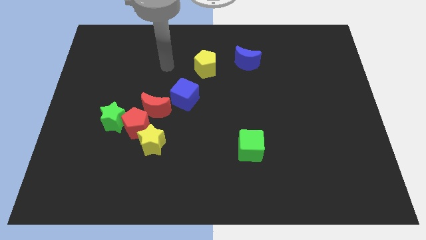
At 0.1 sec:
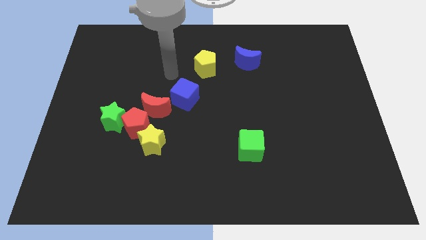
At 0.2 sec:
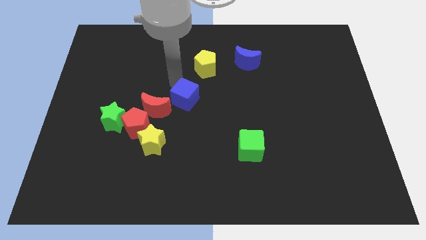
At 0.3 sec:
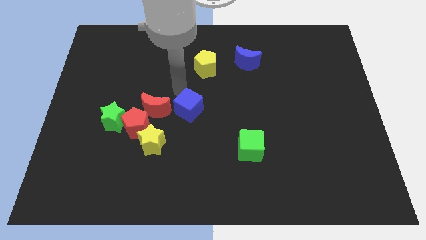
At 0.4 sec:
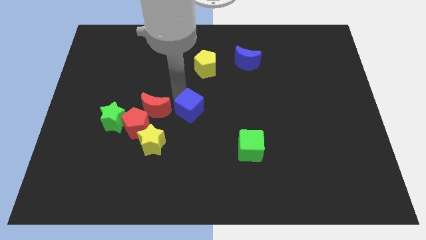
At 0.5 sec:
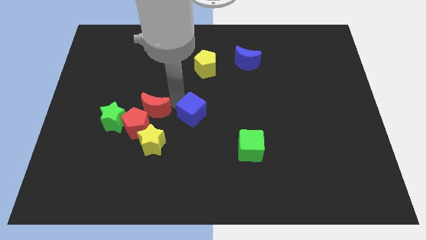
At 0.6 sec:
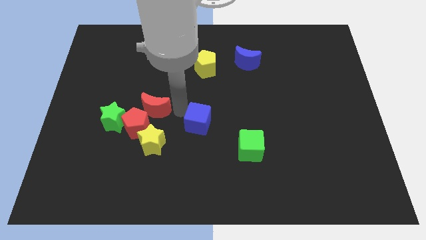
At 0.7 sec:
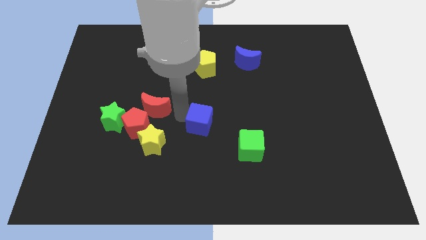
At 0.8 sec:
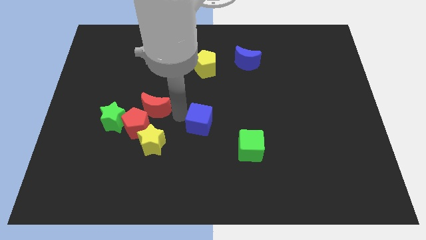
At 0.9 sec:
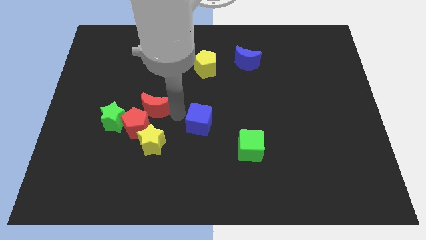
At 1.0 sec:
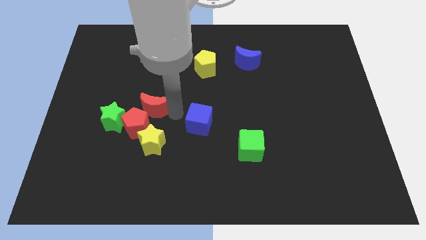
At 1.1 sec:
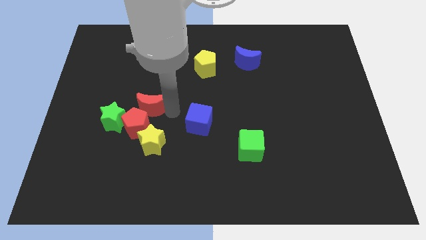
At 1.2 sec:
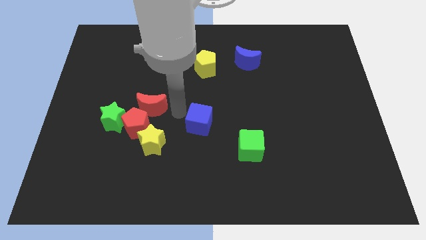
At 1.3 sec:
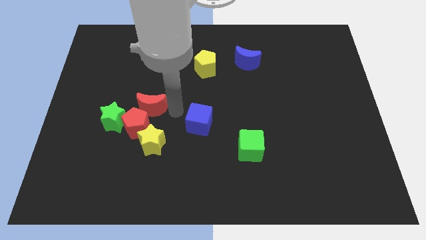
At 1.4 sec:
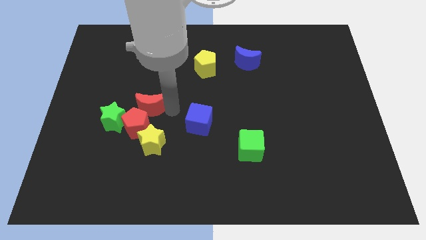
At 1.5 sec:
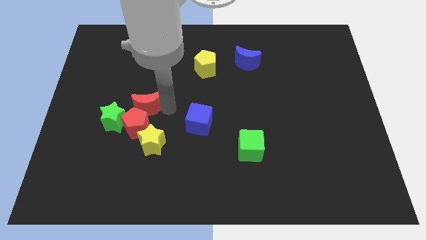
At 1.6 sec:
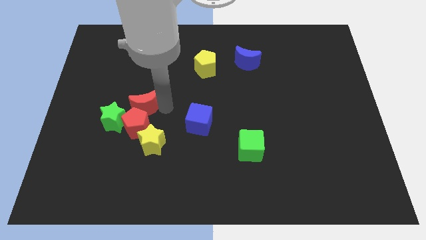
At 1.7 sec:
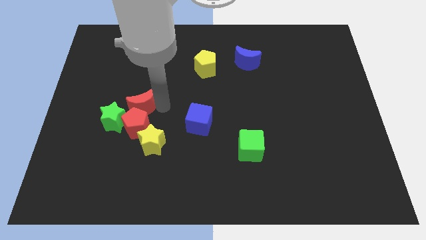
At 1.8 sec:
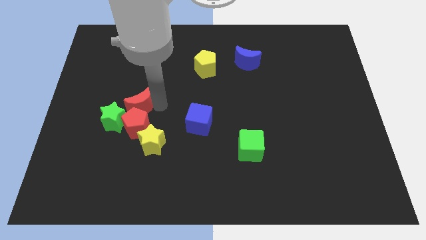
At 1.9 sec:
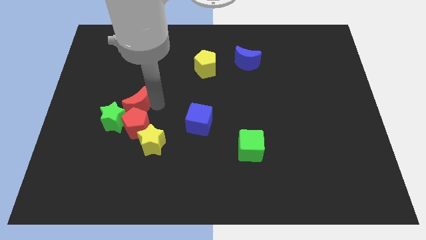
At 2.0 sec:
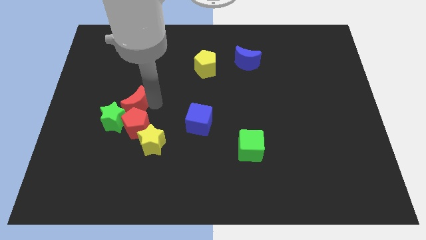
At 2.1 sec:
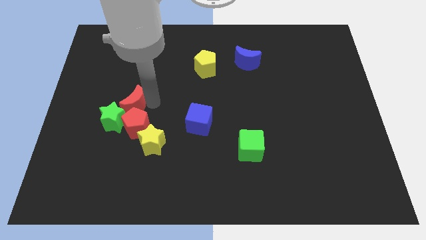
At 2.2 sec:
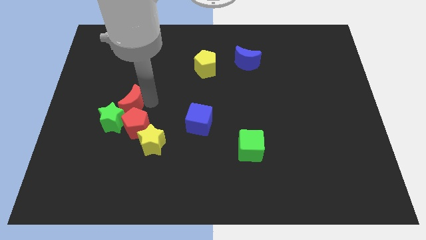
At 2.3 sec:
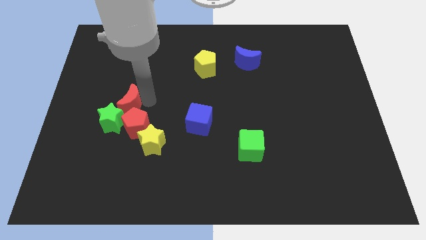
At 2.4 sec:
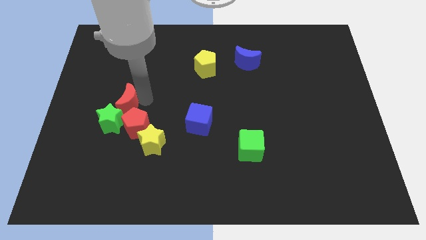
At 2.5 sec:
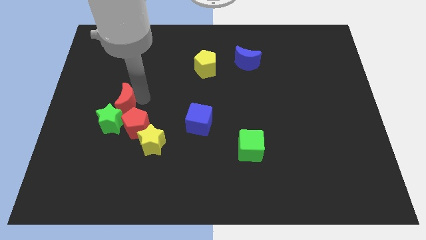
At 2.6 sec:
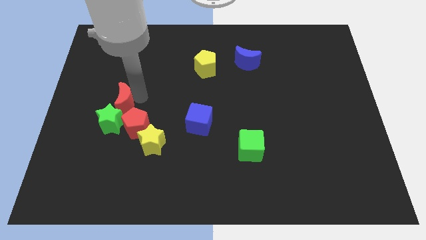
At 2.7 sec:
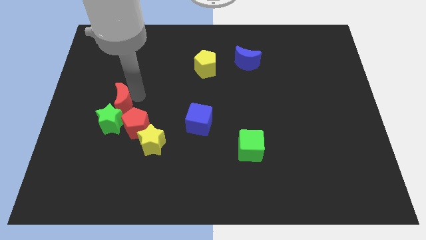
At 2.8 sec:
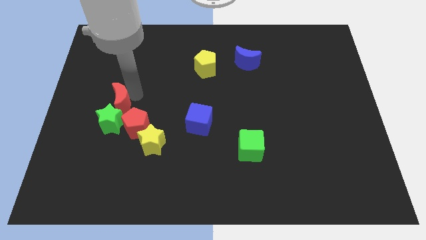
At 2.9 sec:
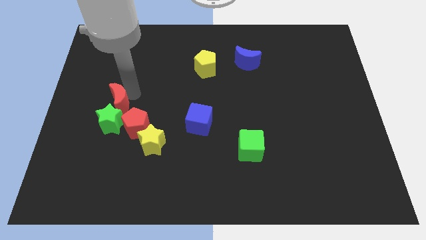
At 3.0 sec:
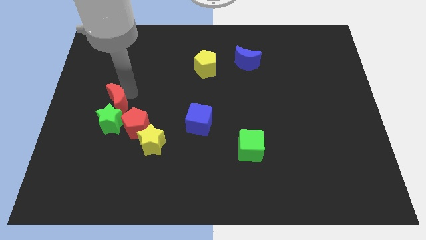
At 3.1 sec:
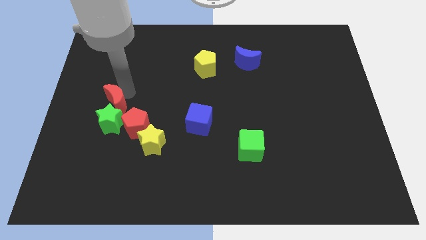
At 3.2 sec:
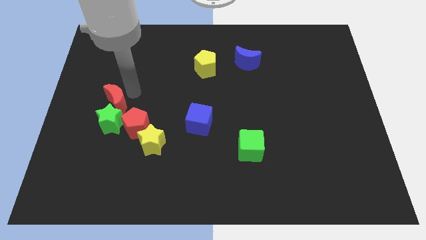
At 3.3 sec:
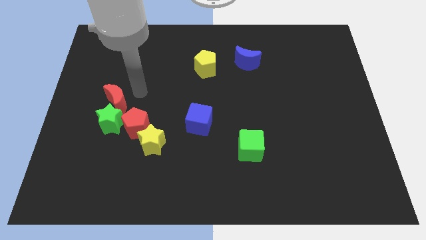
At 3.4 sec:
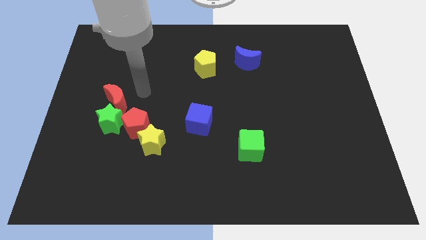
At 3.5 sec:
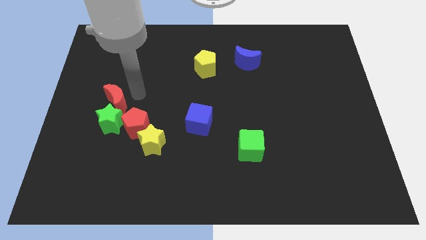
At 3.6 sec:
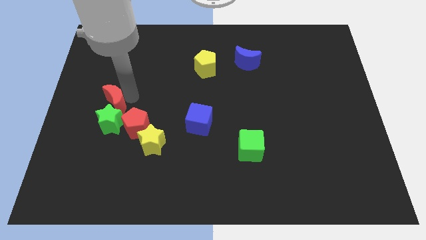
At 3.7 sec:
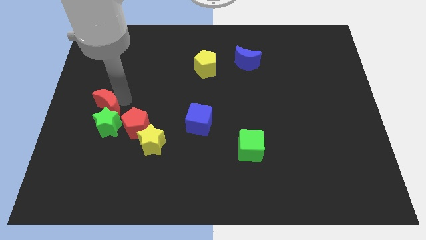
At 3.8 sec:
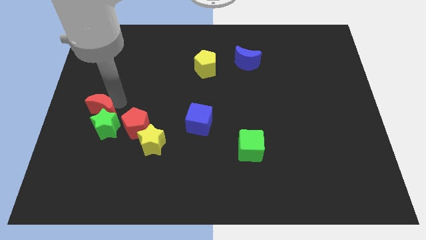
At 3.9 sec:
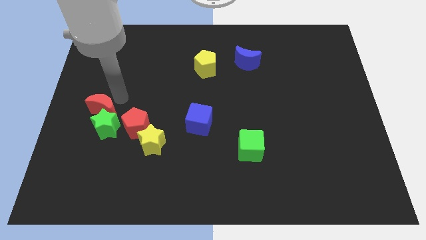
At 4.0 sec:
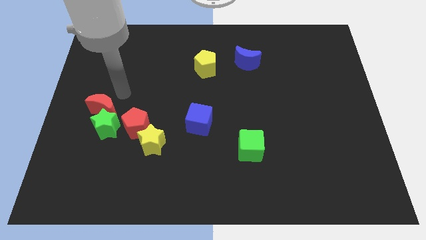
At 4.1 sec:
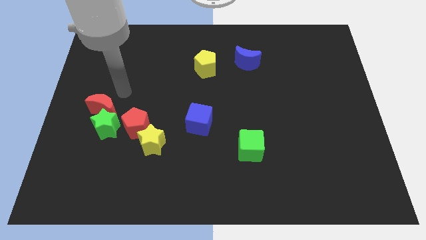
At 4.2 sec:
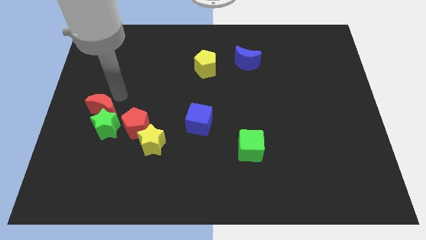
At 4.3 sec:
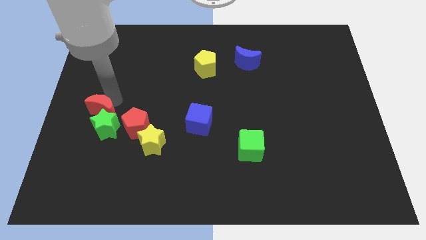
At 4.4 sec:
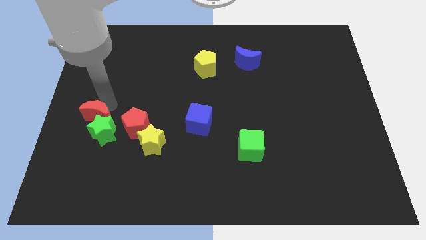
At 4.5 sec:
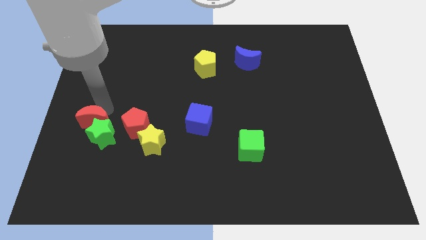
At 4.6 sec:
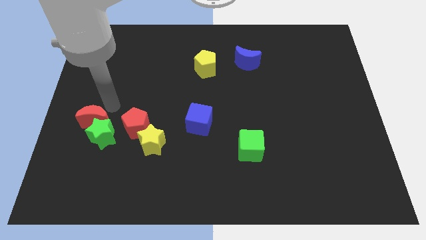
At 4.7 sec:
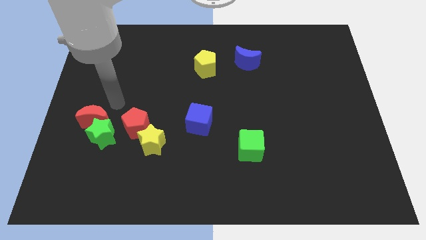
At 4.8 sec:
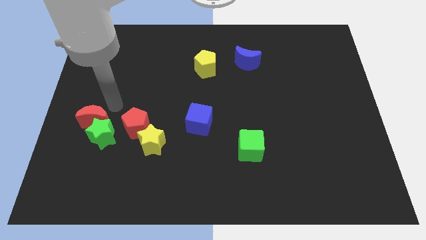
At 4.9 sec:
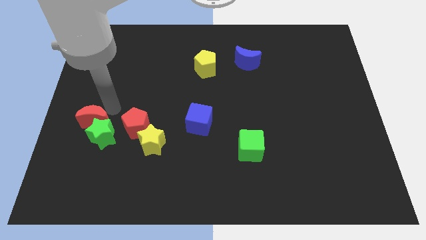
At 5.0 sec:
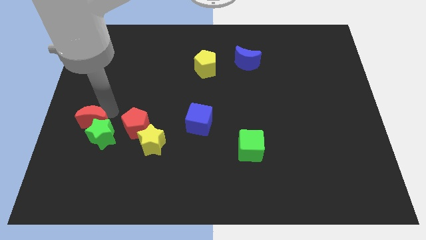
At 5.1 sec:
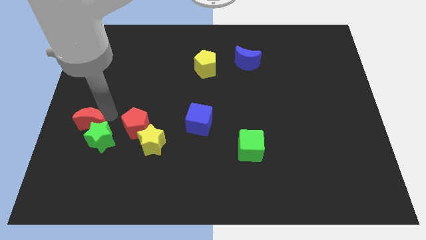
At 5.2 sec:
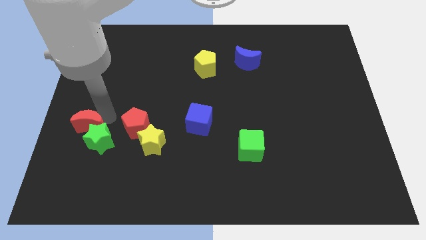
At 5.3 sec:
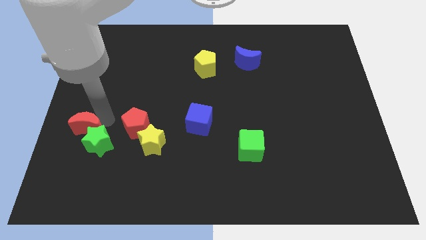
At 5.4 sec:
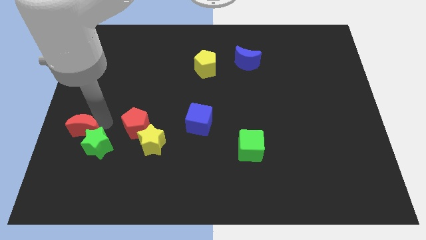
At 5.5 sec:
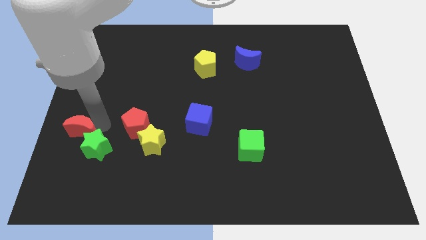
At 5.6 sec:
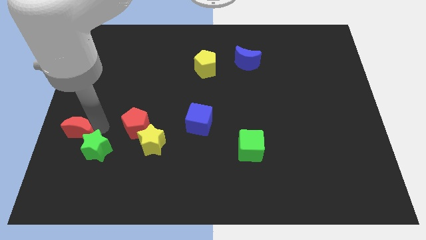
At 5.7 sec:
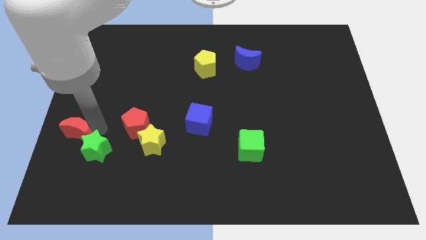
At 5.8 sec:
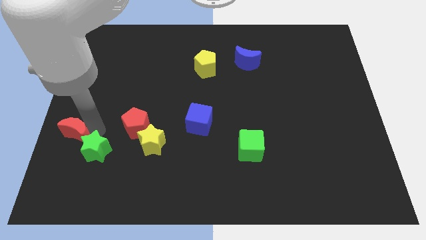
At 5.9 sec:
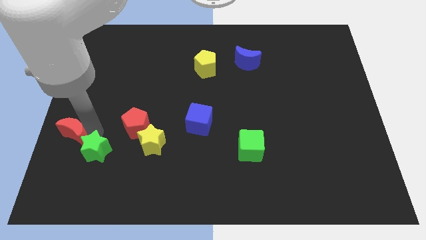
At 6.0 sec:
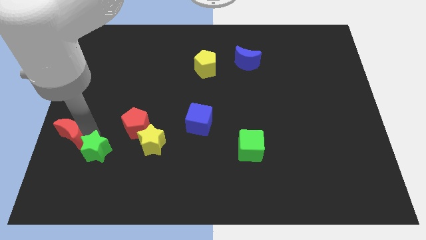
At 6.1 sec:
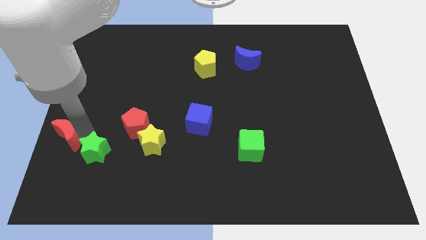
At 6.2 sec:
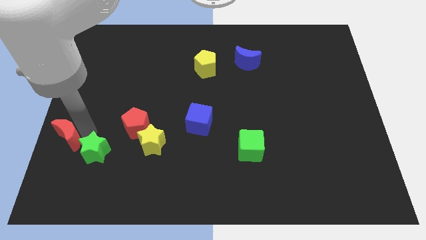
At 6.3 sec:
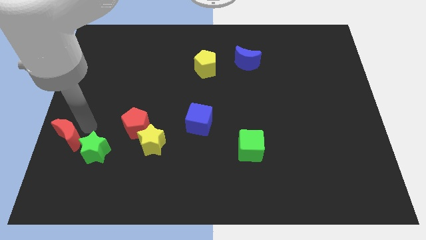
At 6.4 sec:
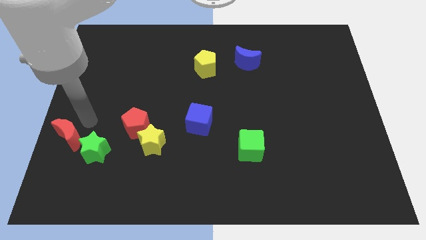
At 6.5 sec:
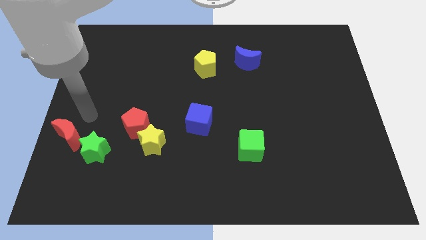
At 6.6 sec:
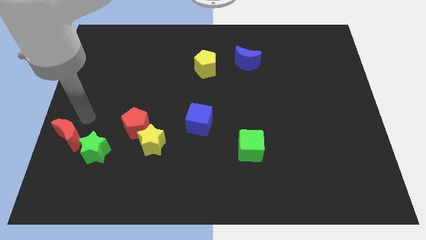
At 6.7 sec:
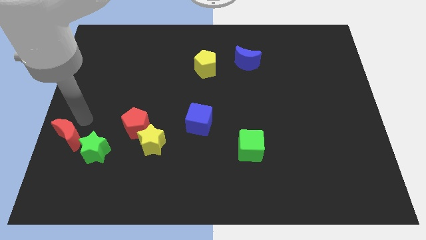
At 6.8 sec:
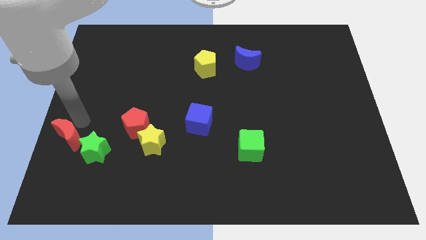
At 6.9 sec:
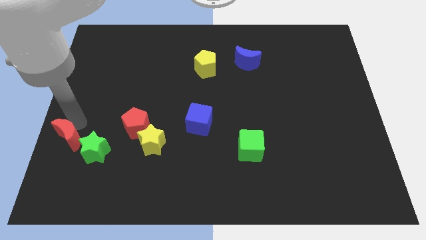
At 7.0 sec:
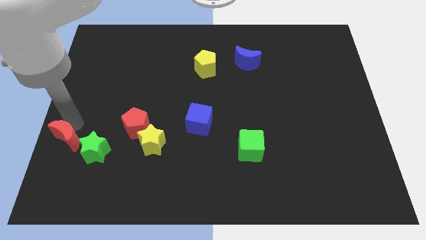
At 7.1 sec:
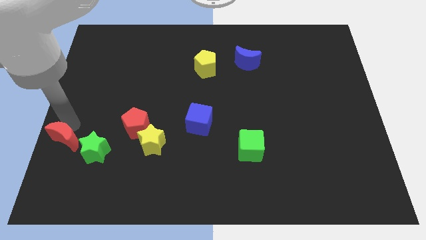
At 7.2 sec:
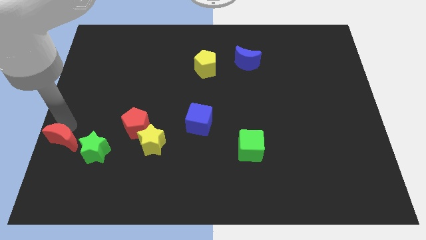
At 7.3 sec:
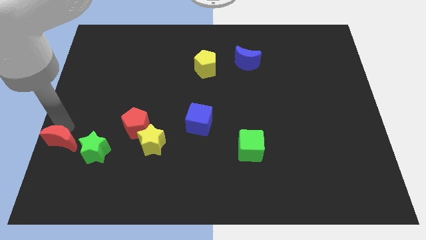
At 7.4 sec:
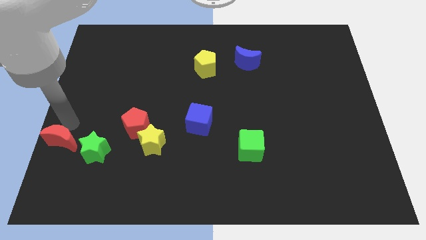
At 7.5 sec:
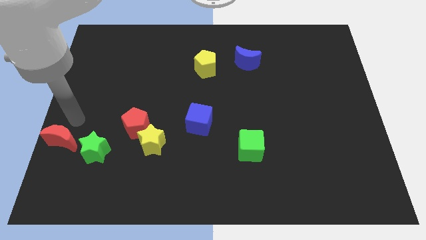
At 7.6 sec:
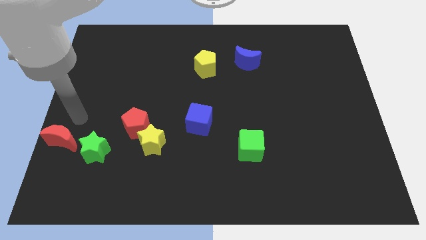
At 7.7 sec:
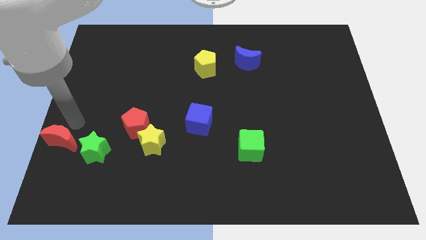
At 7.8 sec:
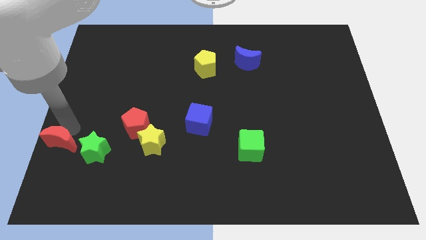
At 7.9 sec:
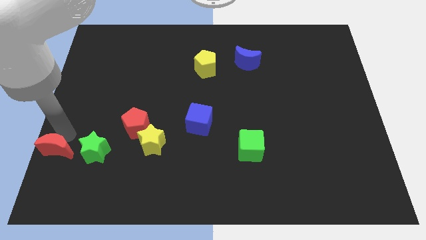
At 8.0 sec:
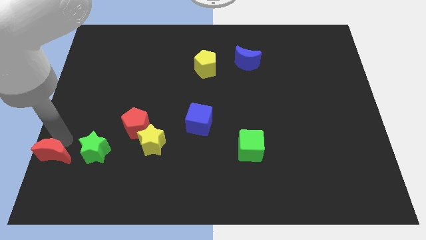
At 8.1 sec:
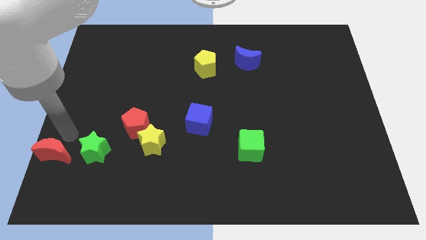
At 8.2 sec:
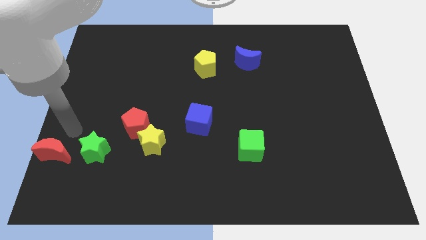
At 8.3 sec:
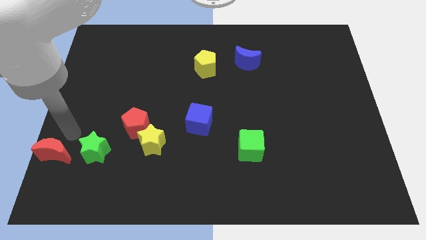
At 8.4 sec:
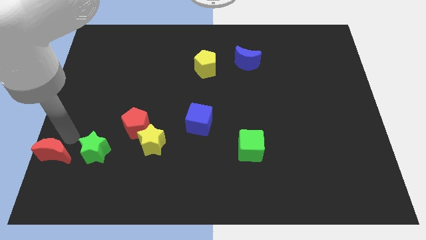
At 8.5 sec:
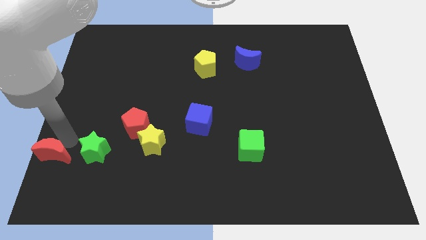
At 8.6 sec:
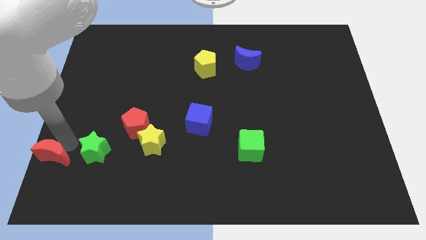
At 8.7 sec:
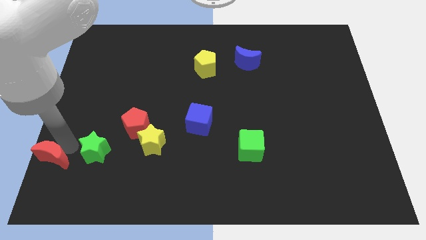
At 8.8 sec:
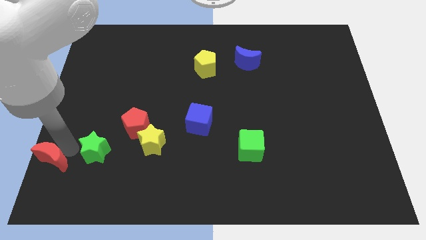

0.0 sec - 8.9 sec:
push the red moon to the bottom left
